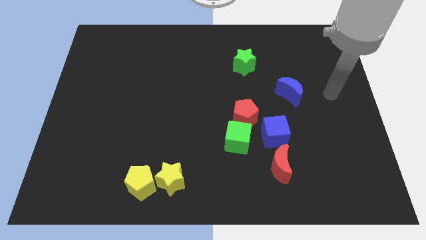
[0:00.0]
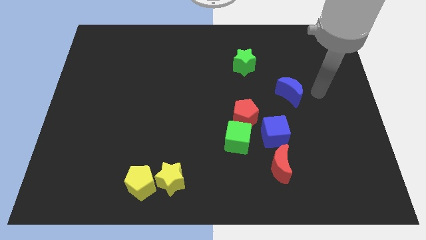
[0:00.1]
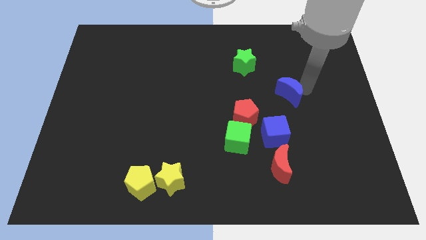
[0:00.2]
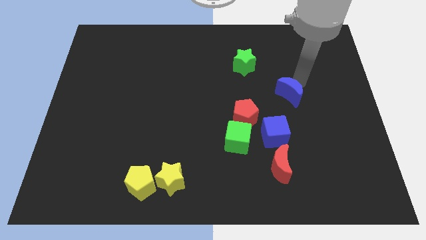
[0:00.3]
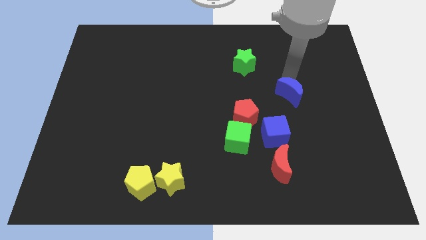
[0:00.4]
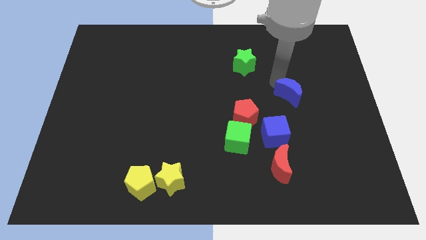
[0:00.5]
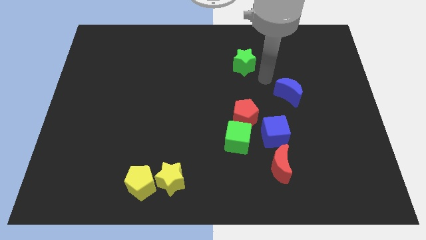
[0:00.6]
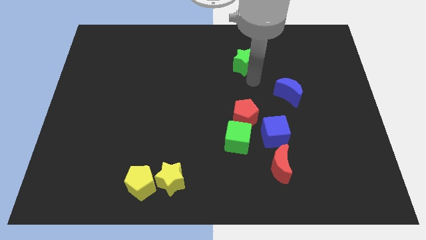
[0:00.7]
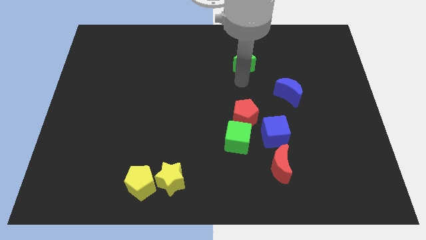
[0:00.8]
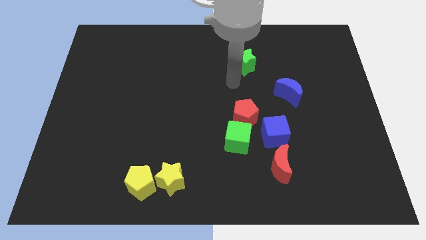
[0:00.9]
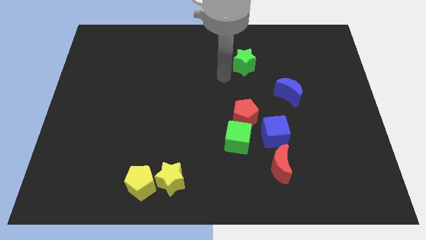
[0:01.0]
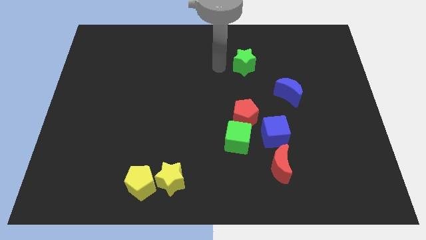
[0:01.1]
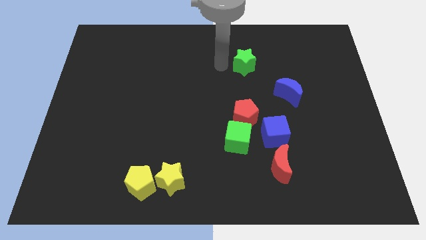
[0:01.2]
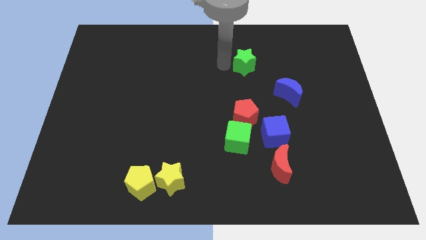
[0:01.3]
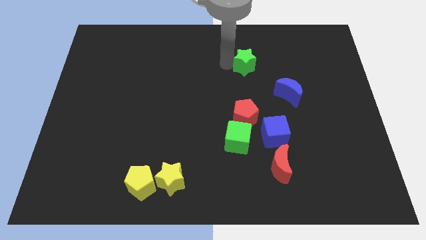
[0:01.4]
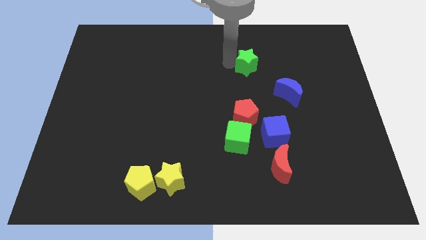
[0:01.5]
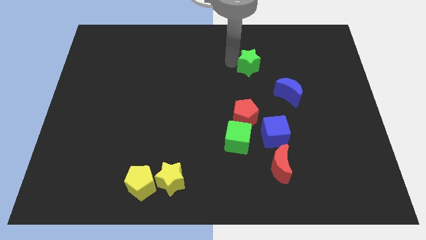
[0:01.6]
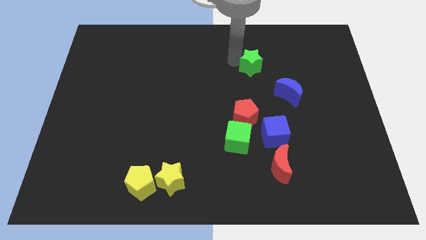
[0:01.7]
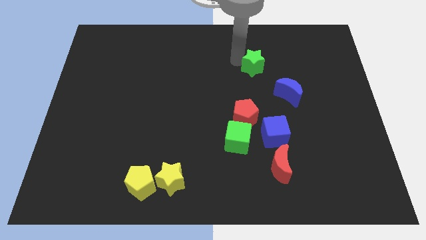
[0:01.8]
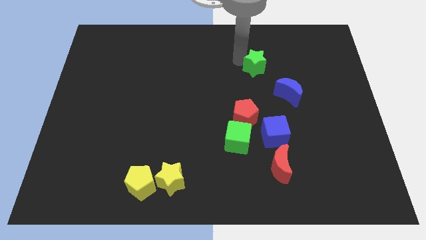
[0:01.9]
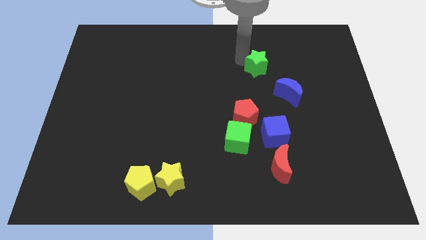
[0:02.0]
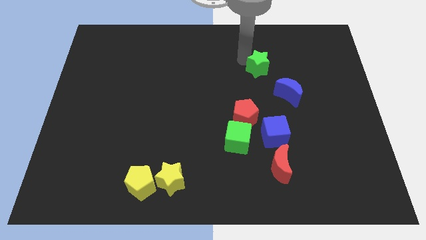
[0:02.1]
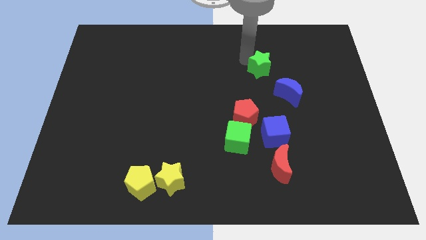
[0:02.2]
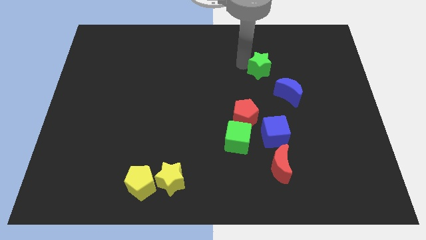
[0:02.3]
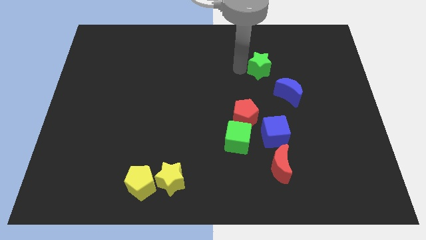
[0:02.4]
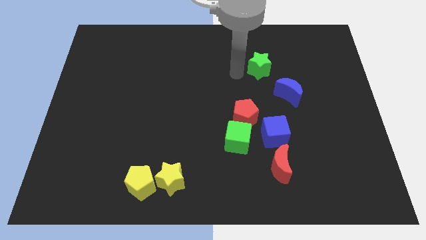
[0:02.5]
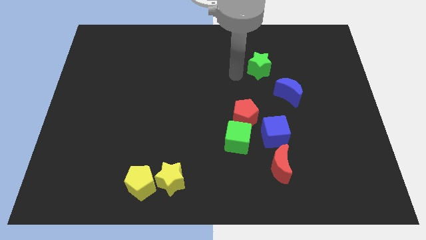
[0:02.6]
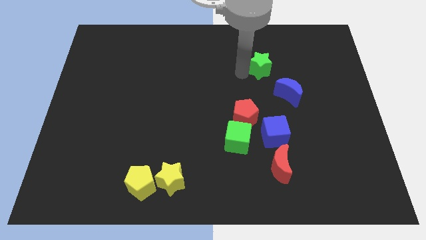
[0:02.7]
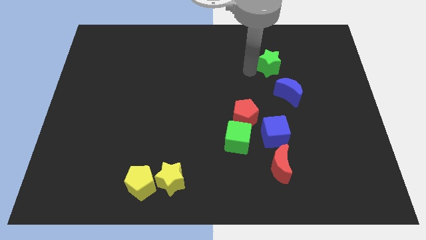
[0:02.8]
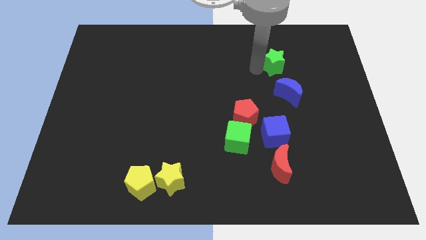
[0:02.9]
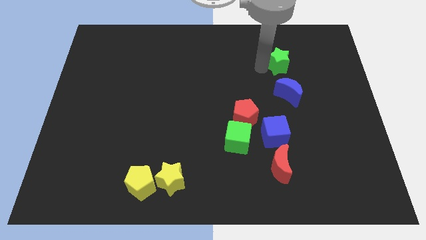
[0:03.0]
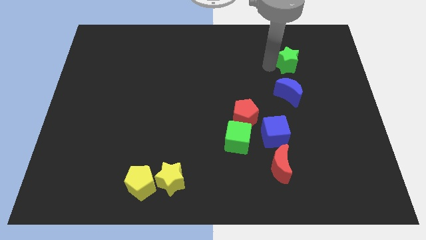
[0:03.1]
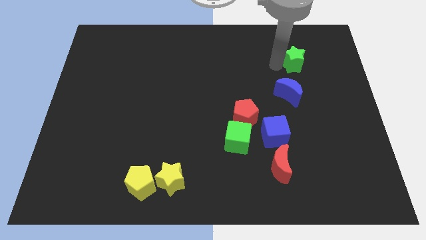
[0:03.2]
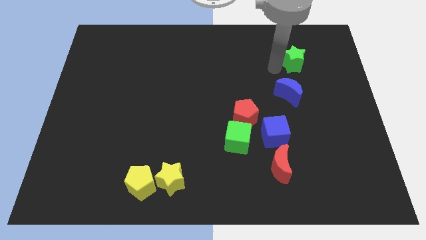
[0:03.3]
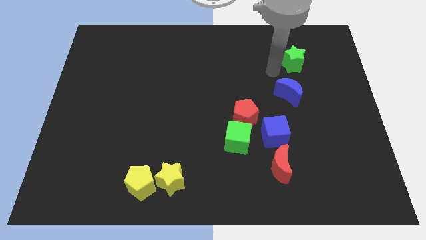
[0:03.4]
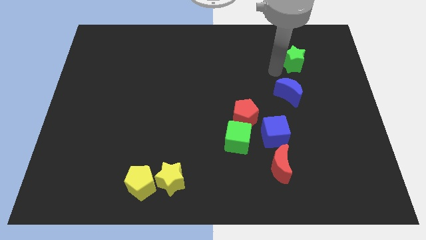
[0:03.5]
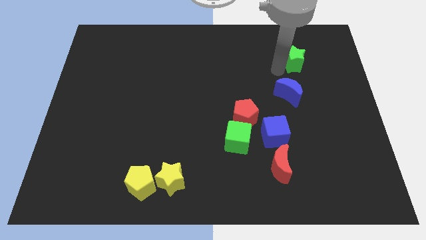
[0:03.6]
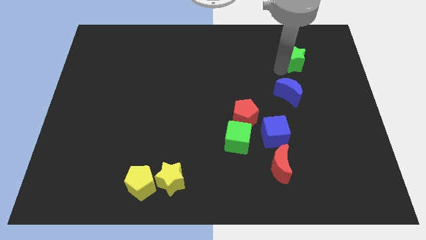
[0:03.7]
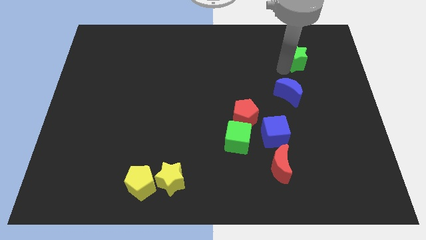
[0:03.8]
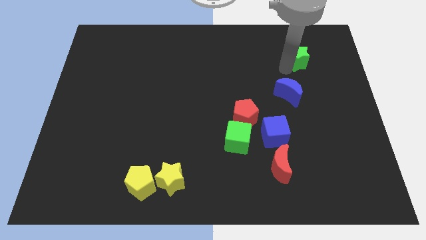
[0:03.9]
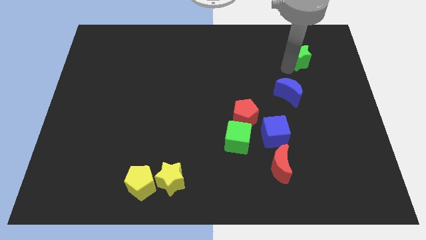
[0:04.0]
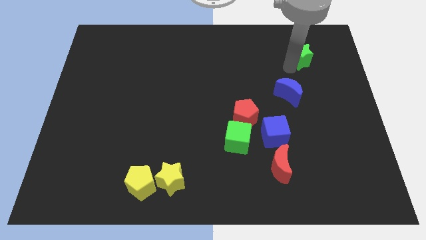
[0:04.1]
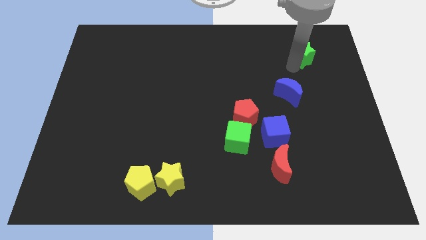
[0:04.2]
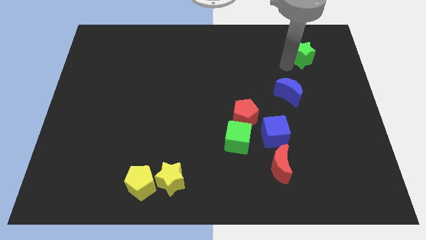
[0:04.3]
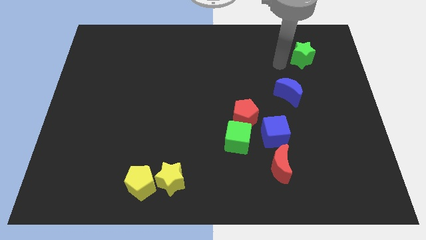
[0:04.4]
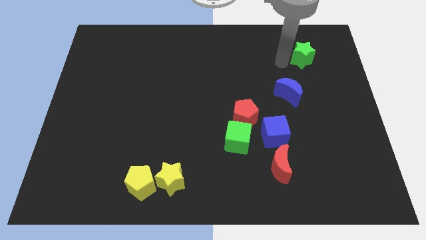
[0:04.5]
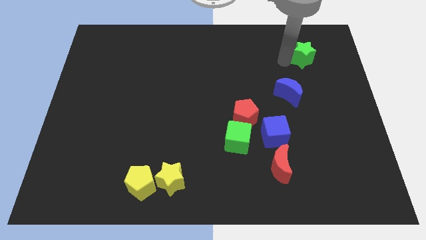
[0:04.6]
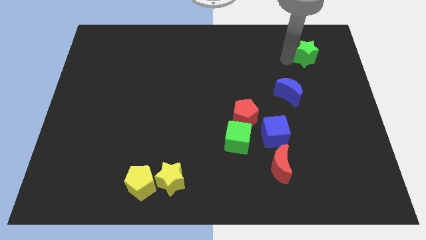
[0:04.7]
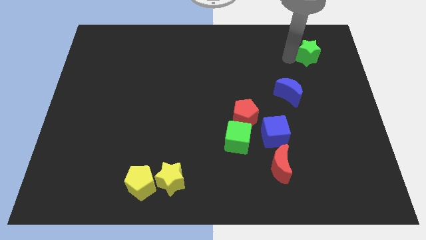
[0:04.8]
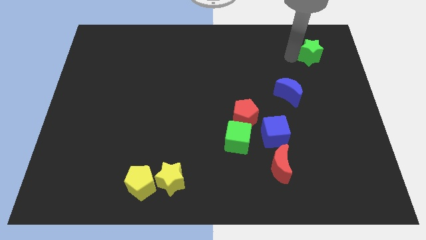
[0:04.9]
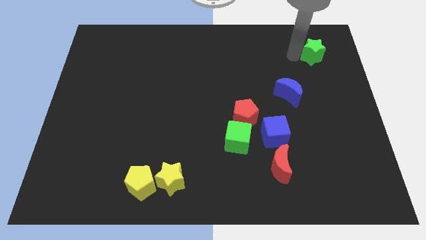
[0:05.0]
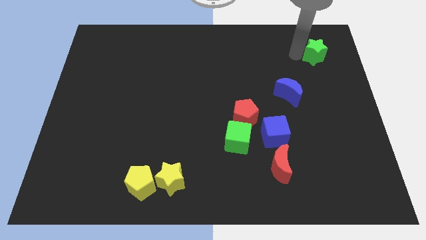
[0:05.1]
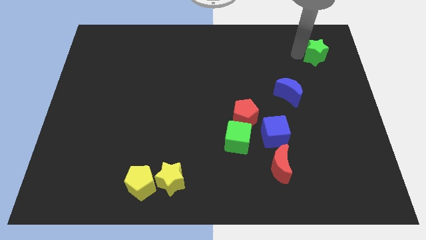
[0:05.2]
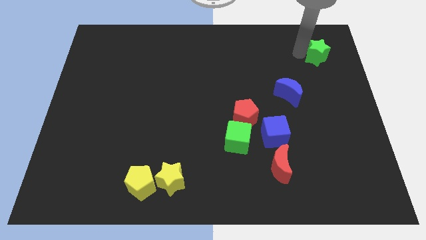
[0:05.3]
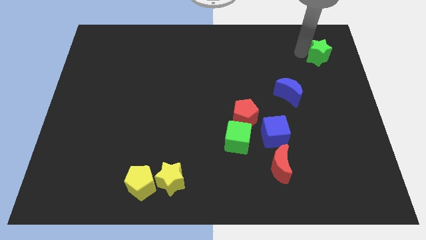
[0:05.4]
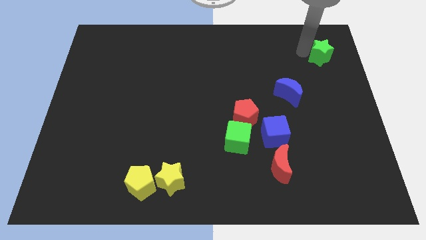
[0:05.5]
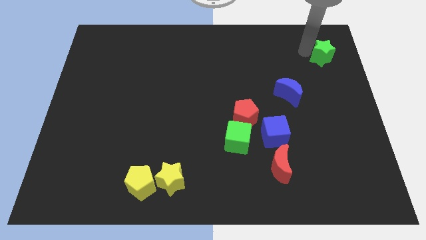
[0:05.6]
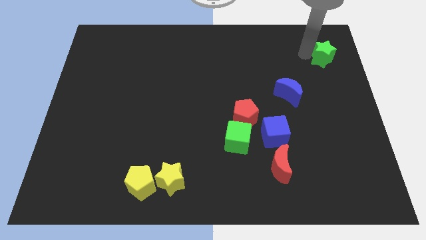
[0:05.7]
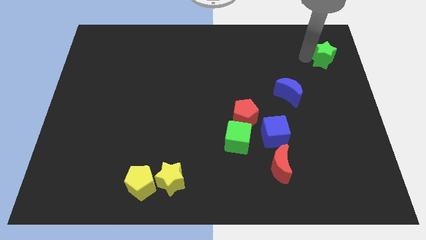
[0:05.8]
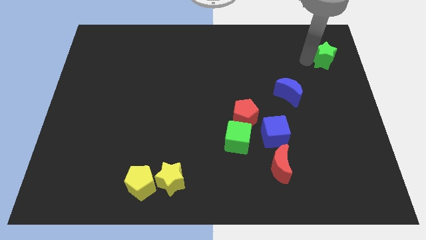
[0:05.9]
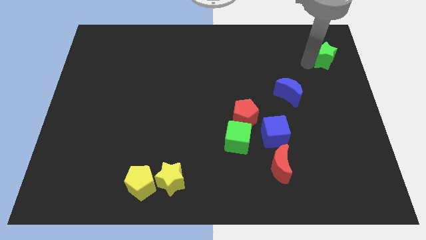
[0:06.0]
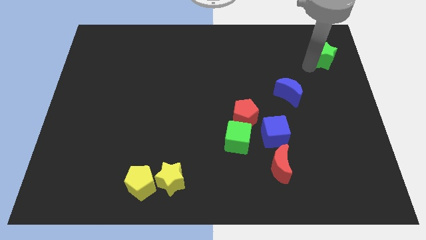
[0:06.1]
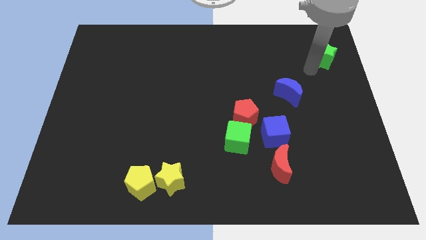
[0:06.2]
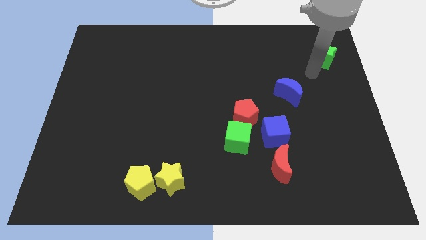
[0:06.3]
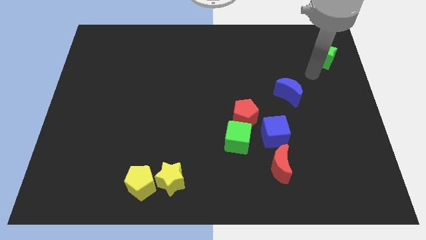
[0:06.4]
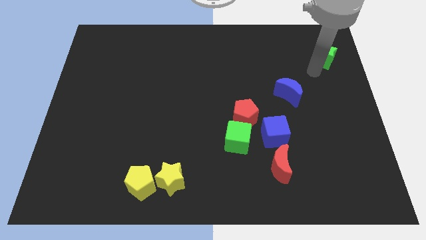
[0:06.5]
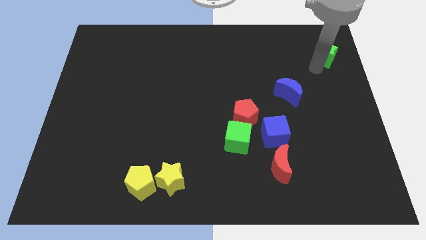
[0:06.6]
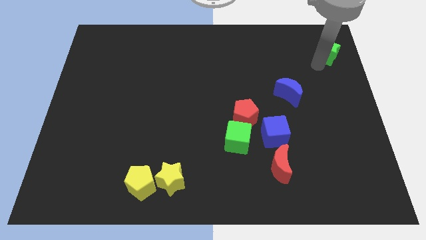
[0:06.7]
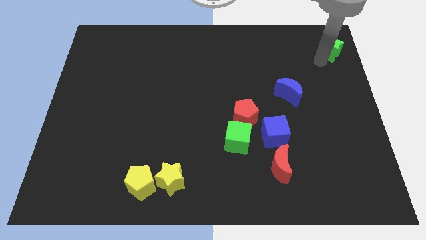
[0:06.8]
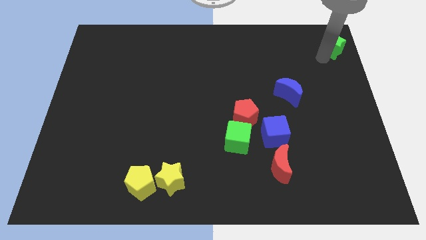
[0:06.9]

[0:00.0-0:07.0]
slide the green star to the top right of the board
